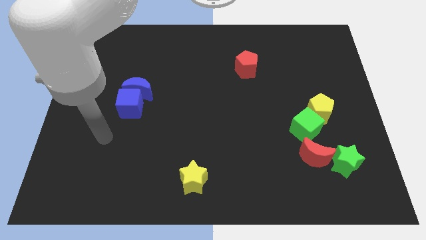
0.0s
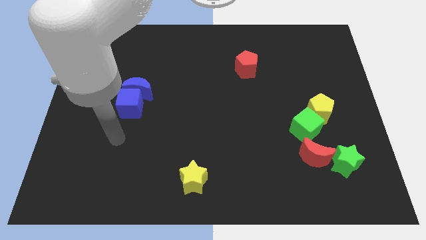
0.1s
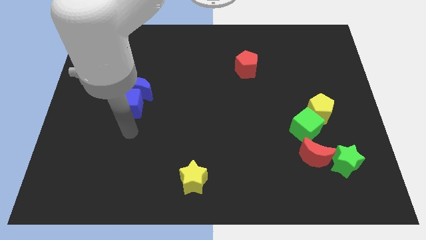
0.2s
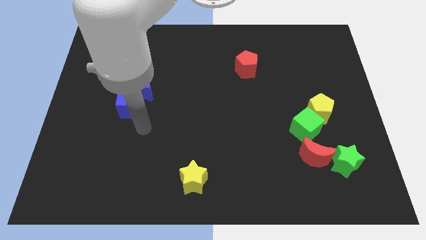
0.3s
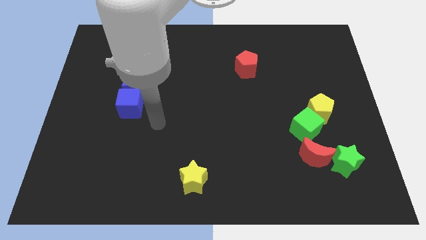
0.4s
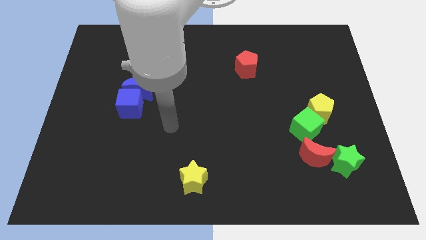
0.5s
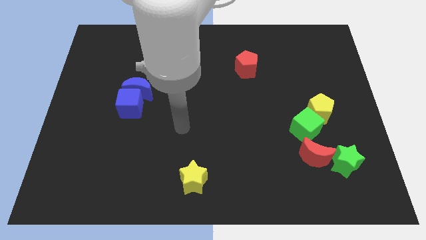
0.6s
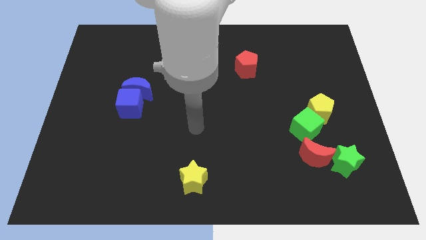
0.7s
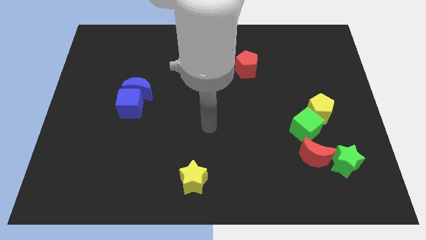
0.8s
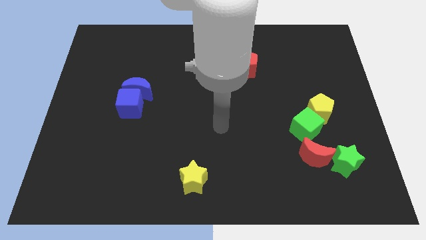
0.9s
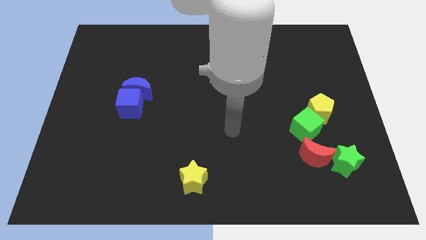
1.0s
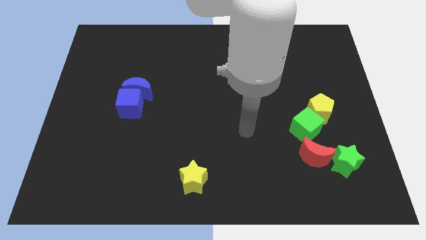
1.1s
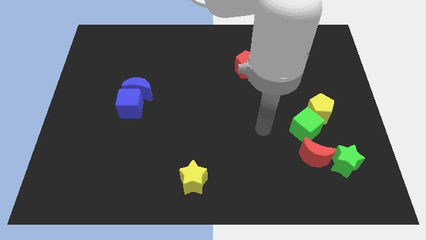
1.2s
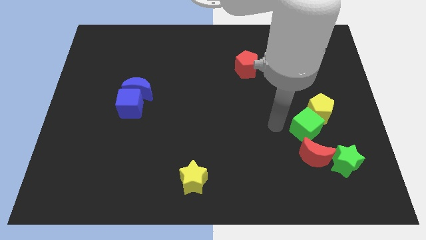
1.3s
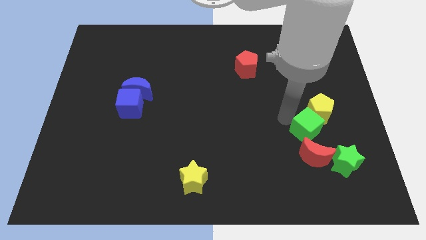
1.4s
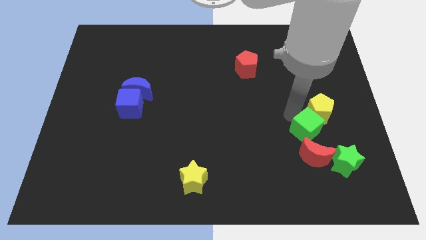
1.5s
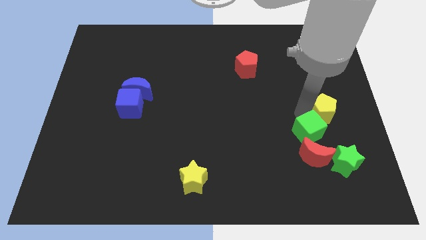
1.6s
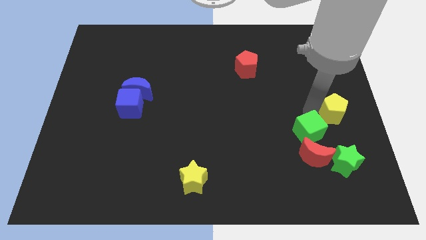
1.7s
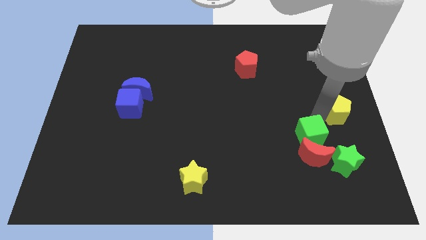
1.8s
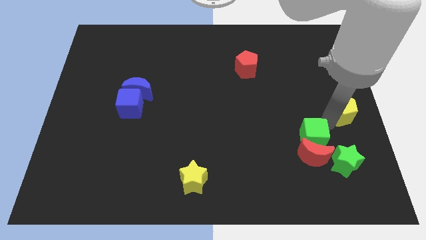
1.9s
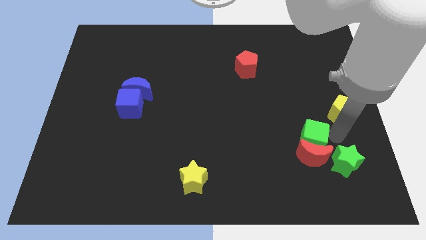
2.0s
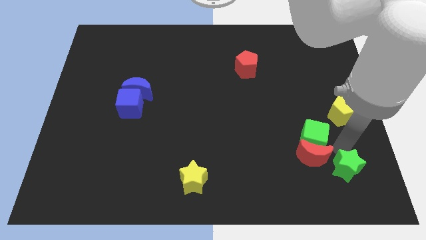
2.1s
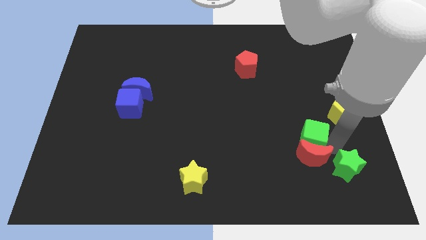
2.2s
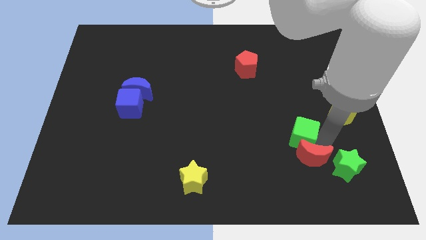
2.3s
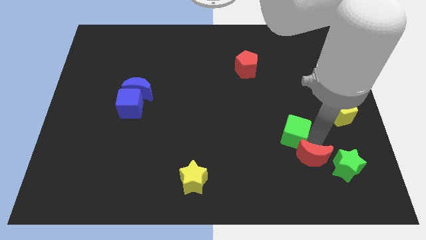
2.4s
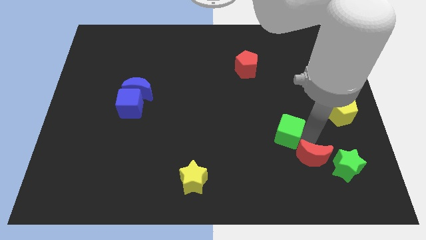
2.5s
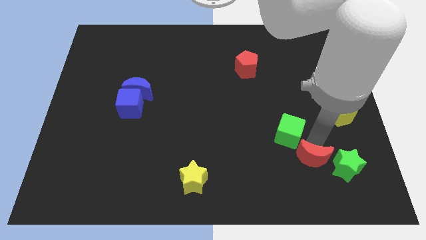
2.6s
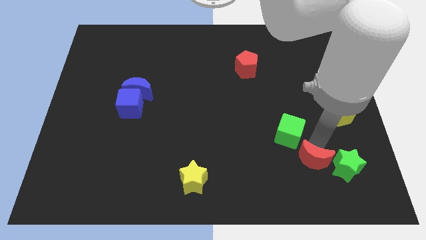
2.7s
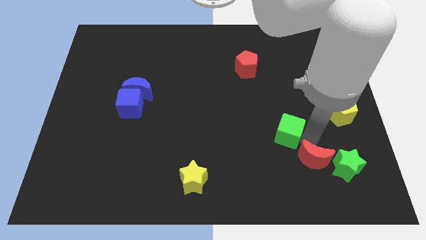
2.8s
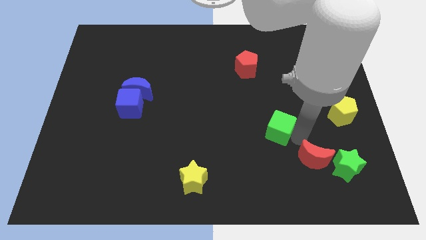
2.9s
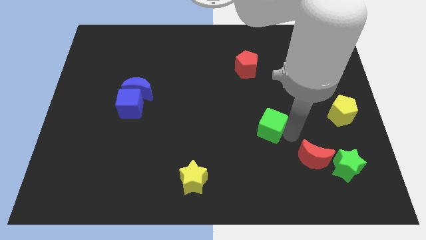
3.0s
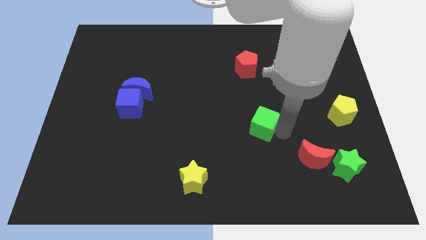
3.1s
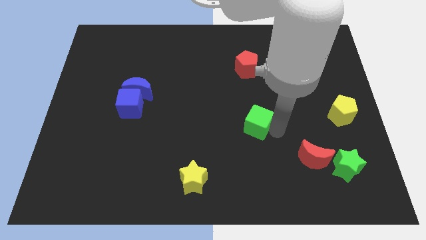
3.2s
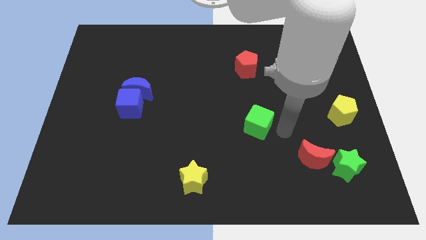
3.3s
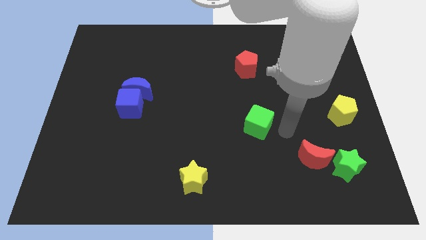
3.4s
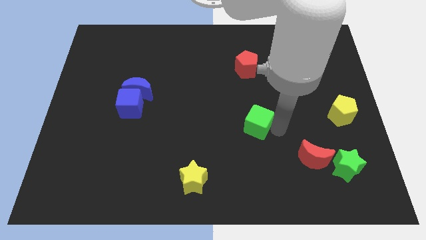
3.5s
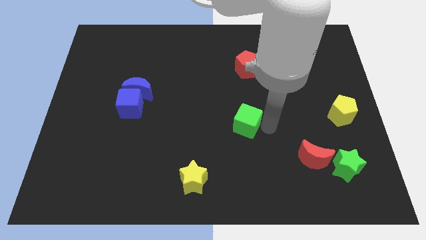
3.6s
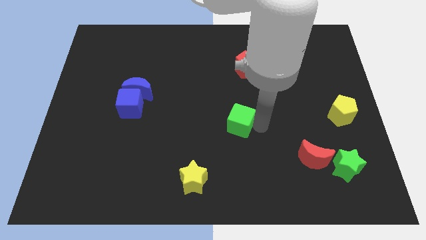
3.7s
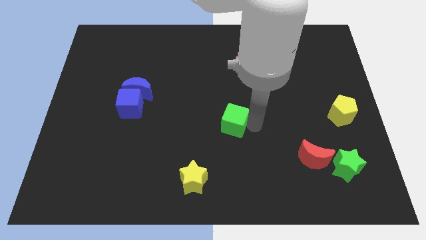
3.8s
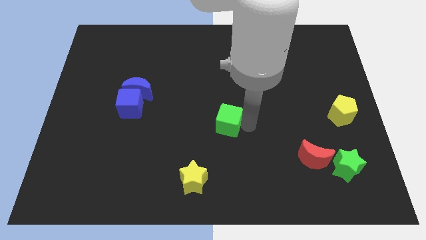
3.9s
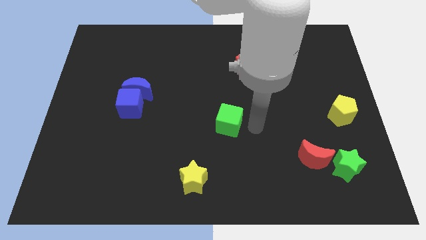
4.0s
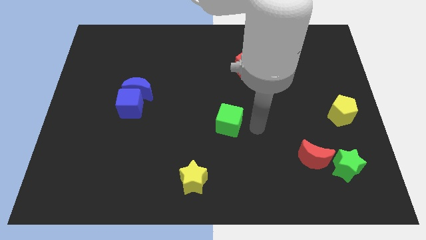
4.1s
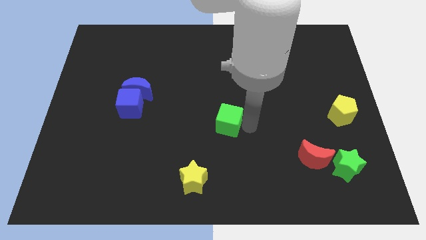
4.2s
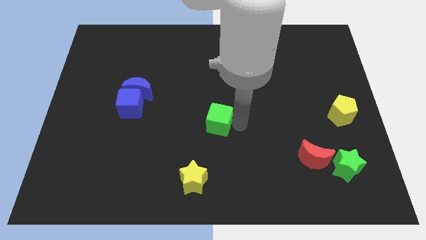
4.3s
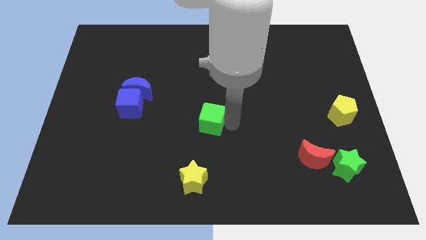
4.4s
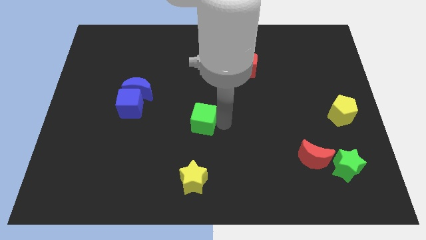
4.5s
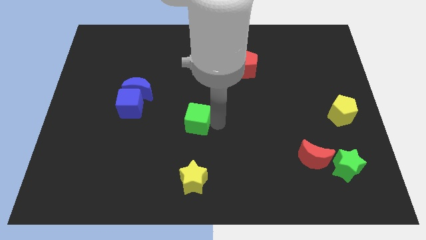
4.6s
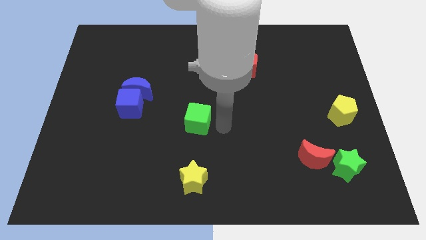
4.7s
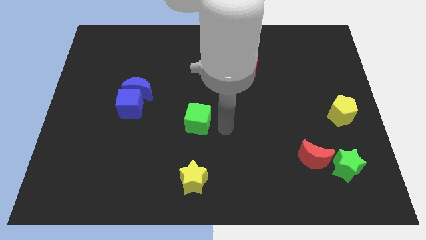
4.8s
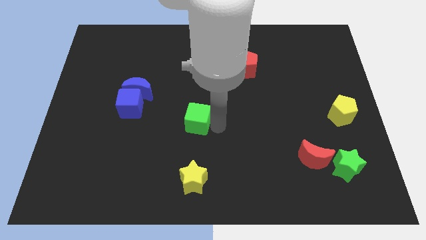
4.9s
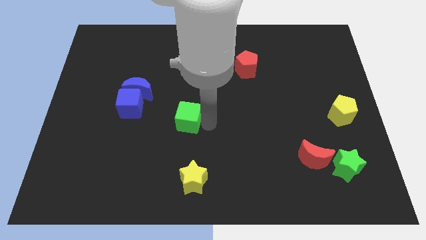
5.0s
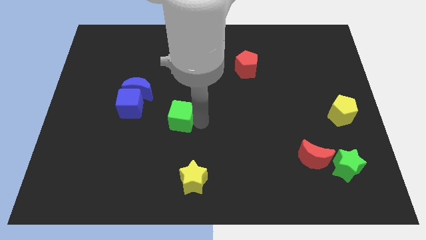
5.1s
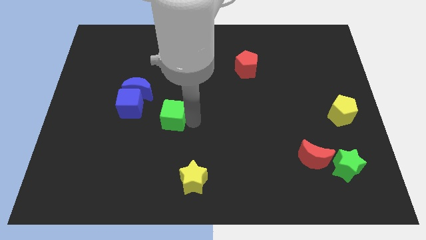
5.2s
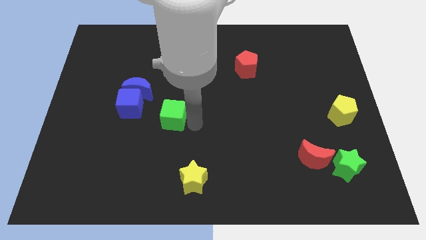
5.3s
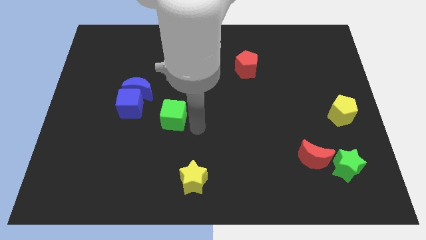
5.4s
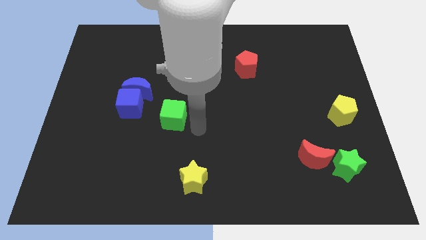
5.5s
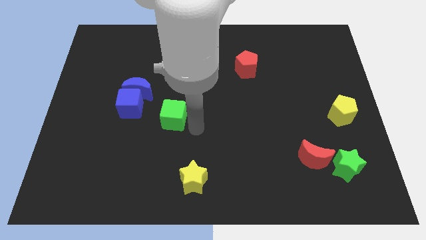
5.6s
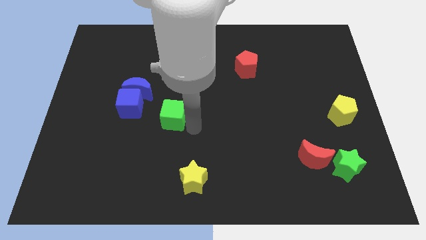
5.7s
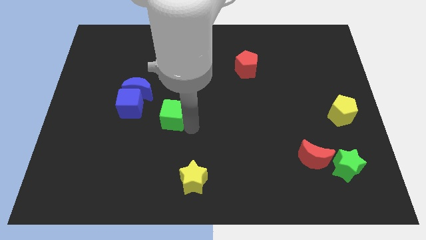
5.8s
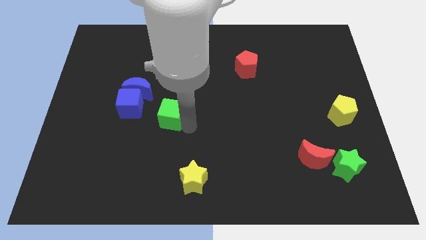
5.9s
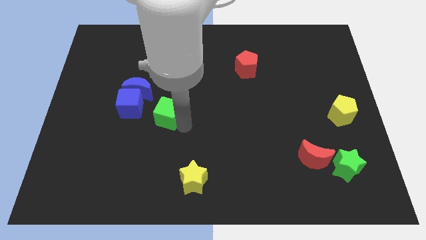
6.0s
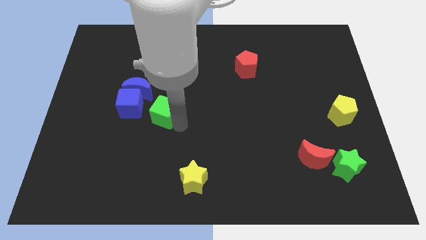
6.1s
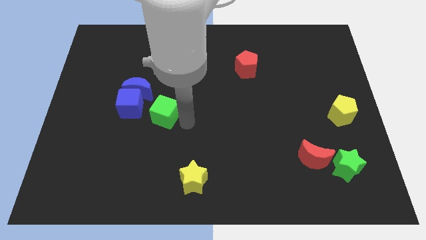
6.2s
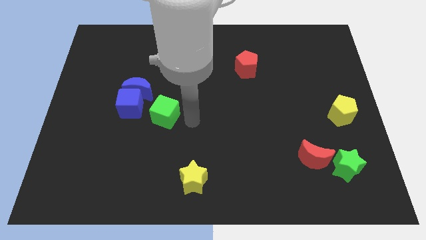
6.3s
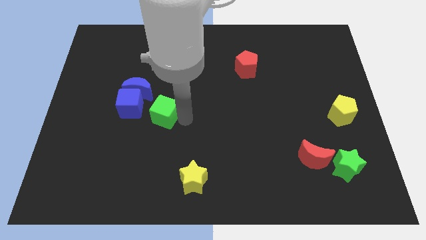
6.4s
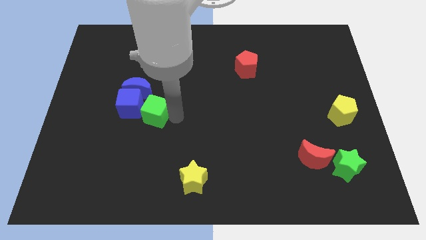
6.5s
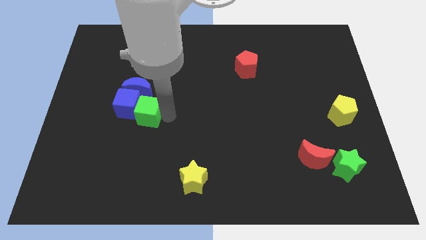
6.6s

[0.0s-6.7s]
put the green cube close to the blue cube

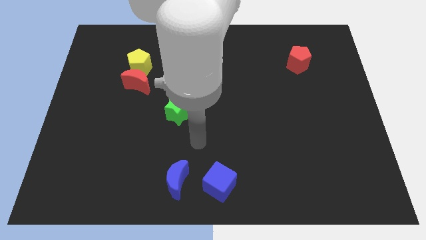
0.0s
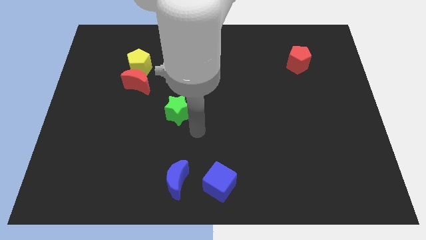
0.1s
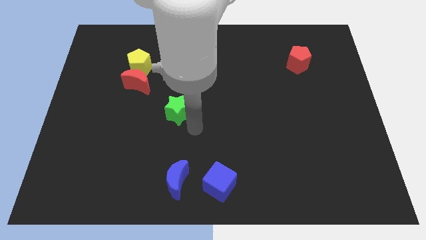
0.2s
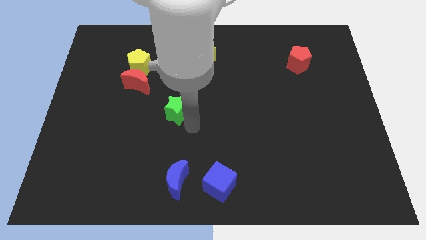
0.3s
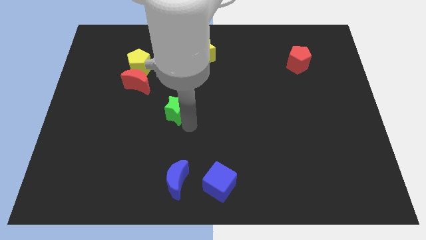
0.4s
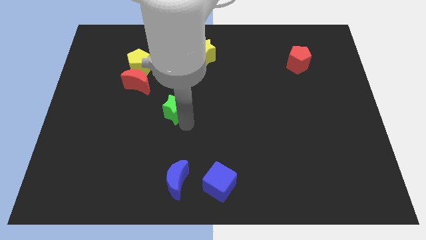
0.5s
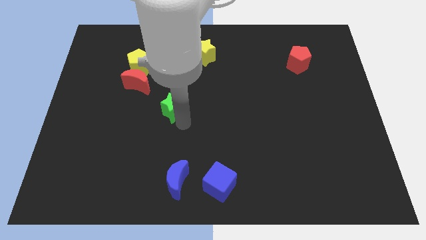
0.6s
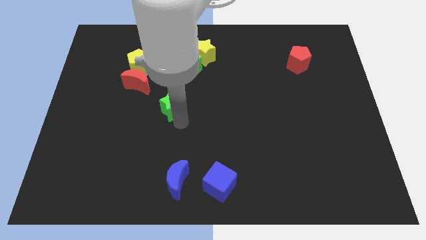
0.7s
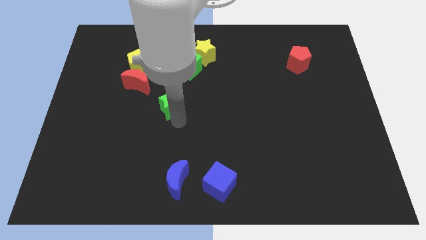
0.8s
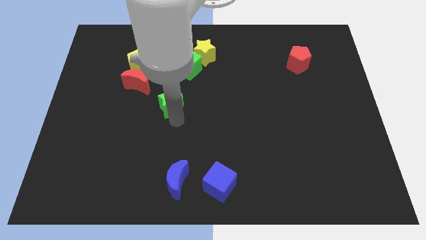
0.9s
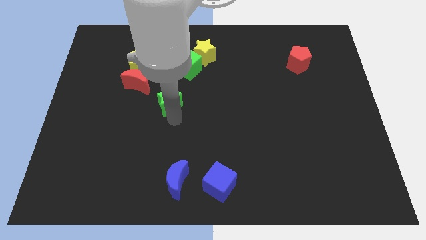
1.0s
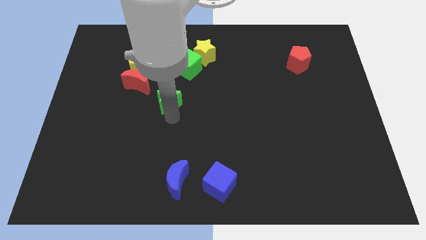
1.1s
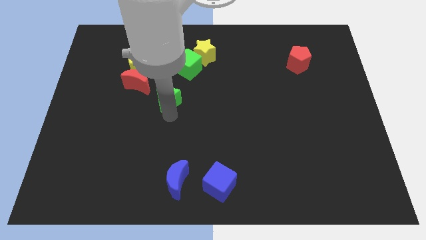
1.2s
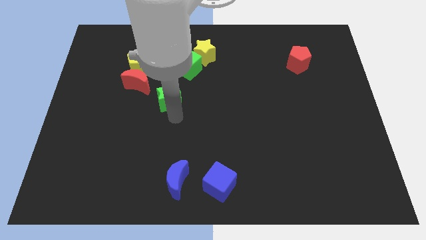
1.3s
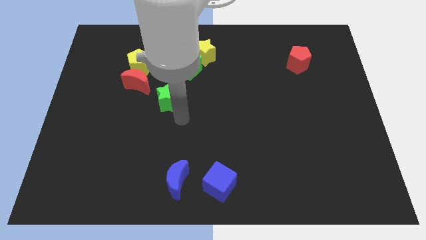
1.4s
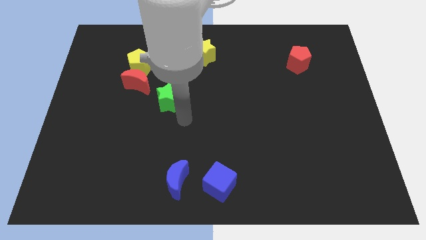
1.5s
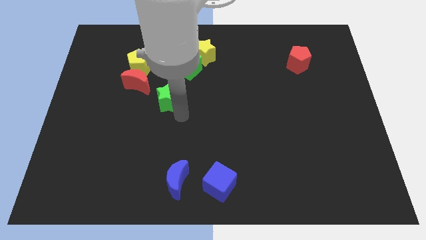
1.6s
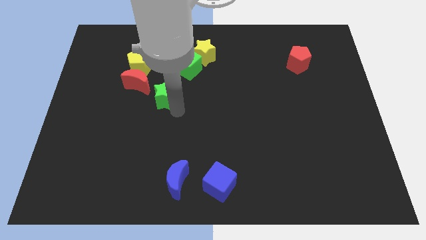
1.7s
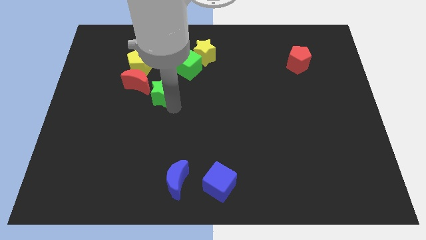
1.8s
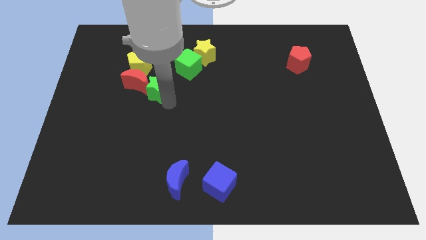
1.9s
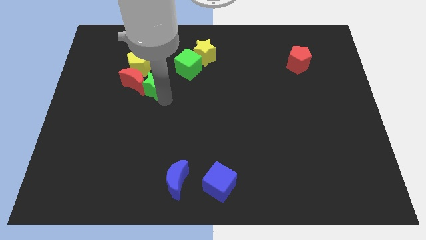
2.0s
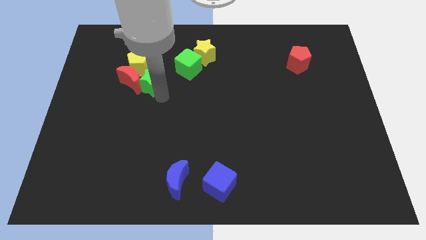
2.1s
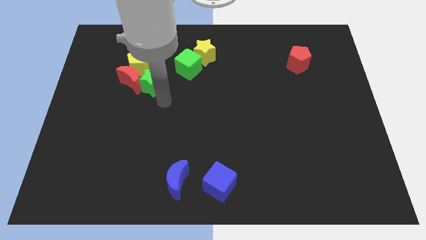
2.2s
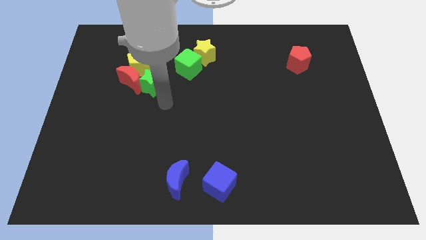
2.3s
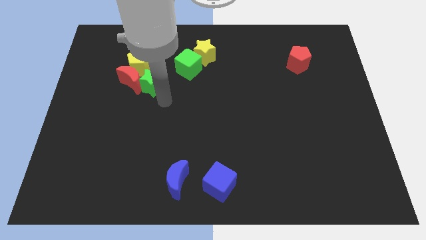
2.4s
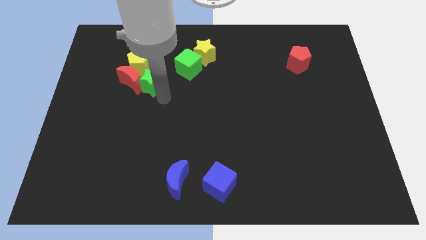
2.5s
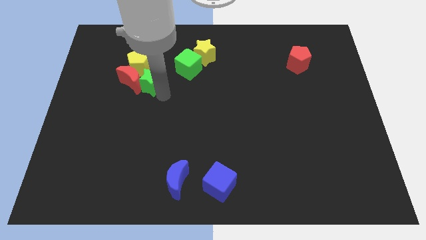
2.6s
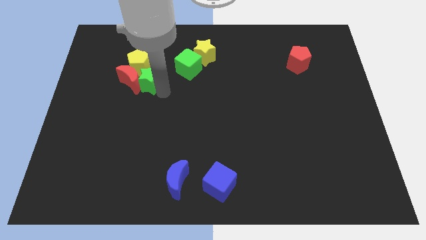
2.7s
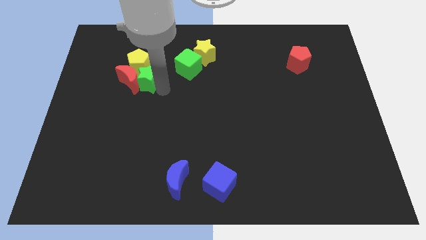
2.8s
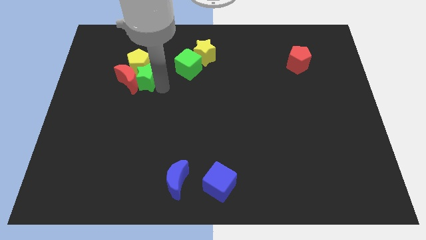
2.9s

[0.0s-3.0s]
push the green star towards the yellow pentagon
